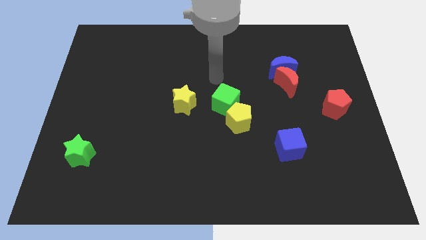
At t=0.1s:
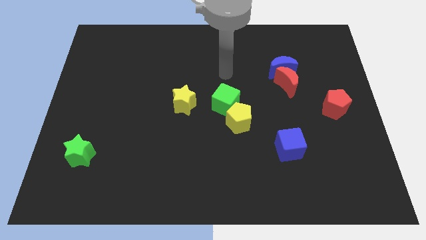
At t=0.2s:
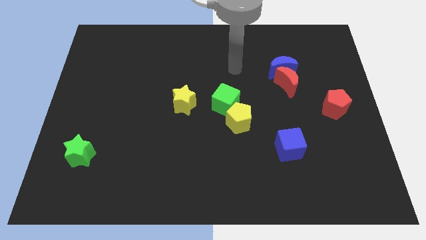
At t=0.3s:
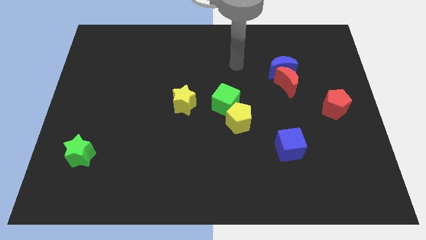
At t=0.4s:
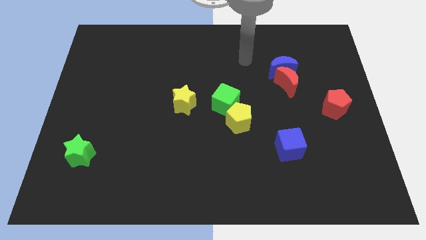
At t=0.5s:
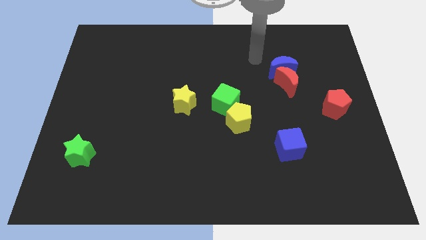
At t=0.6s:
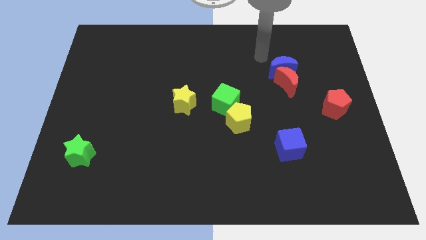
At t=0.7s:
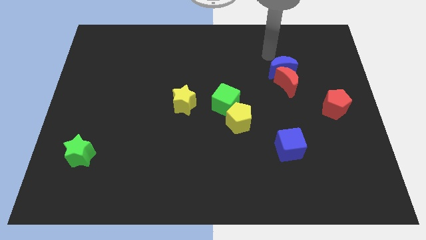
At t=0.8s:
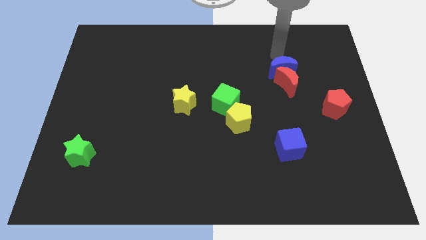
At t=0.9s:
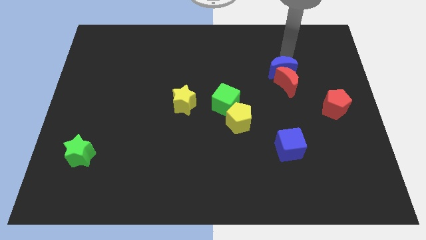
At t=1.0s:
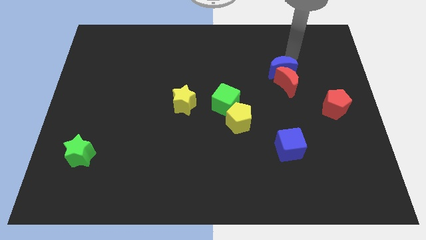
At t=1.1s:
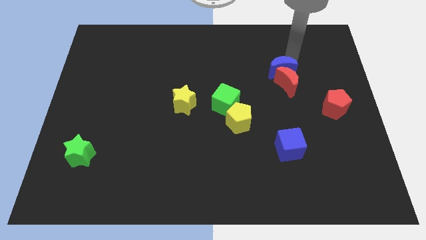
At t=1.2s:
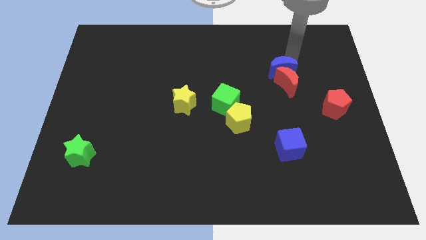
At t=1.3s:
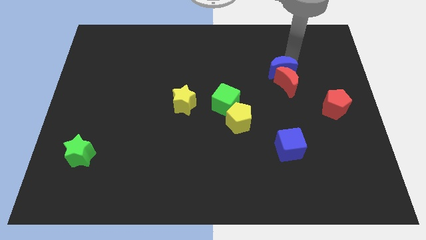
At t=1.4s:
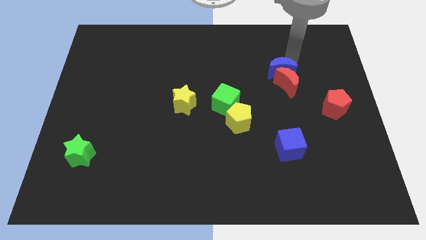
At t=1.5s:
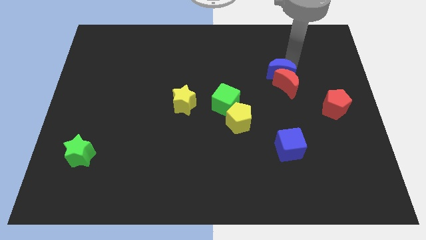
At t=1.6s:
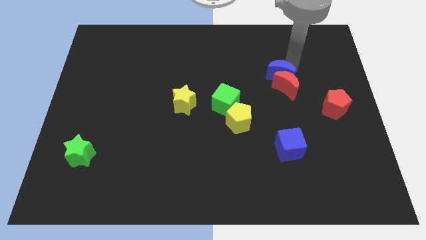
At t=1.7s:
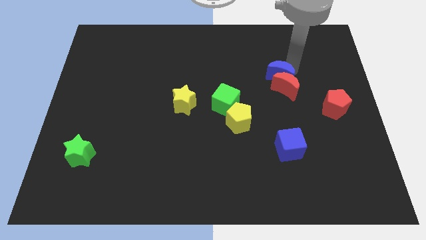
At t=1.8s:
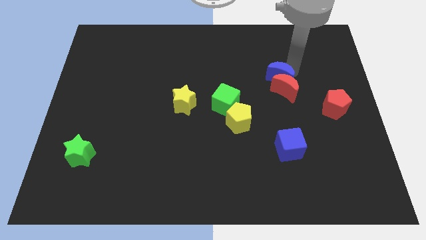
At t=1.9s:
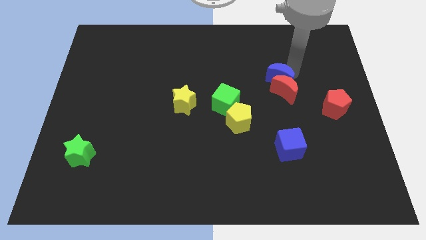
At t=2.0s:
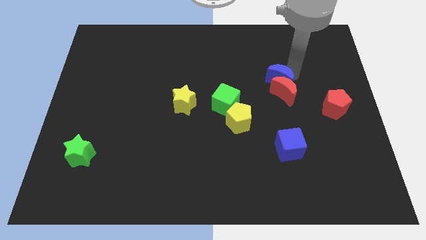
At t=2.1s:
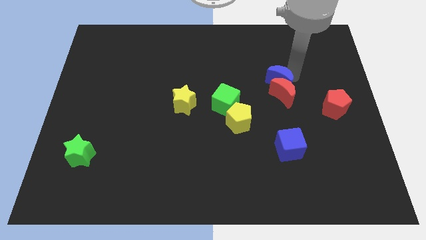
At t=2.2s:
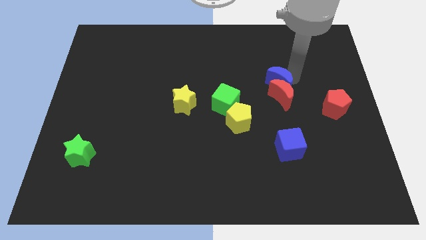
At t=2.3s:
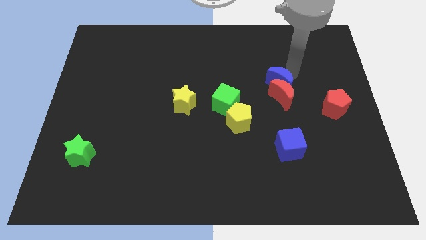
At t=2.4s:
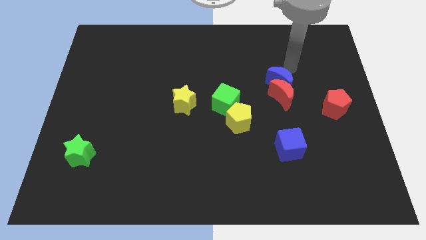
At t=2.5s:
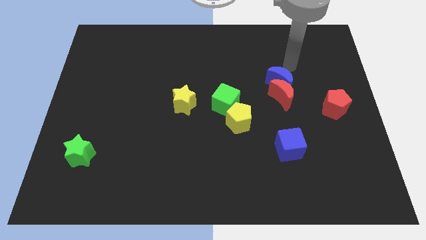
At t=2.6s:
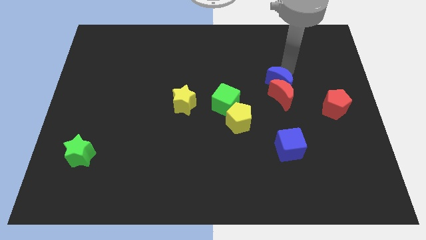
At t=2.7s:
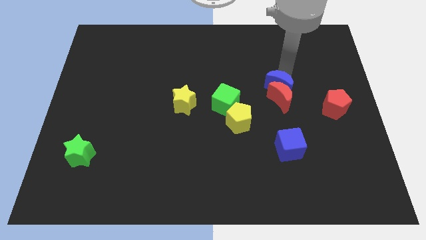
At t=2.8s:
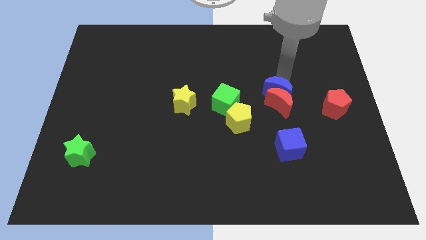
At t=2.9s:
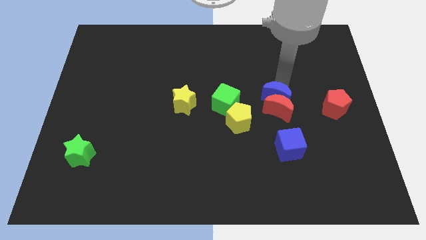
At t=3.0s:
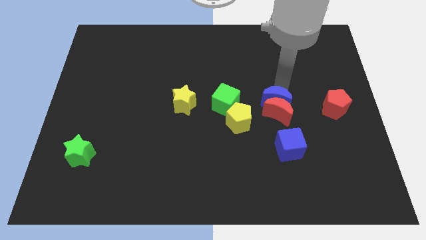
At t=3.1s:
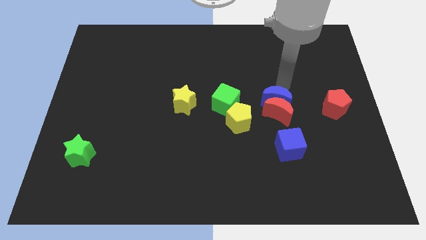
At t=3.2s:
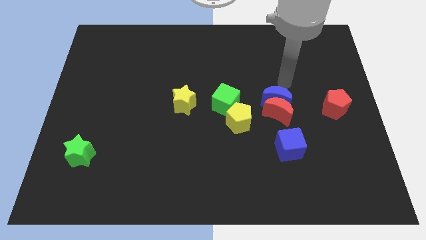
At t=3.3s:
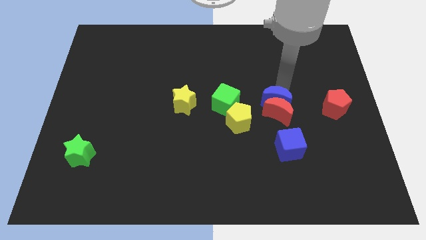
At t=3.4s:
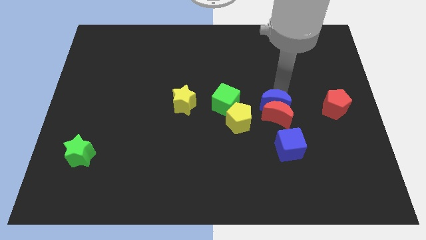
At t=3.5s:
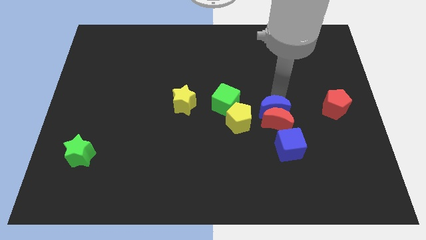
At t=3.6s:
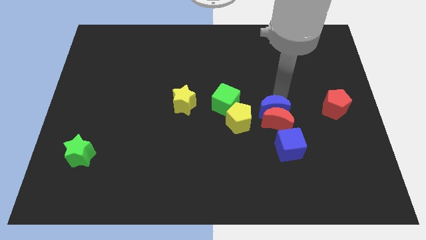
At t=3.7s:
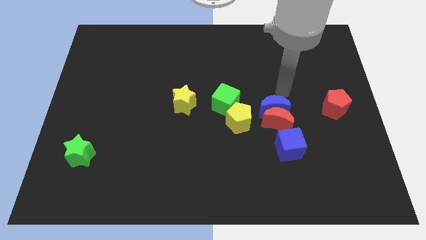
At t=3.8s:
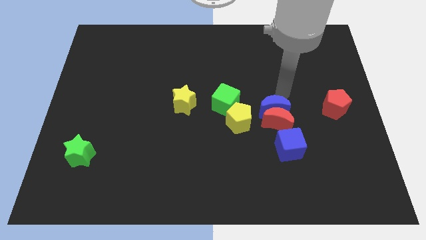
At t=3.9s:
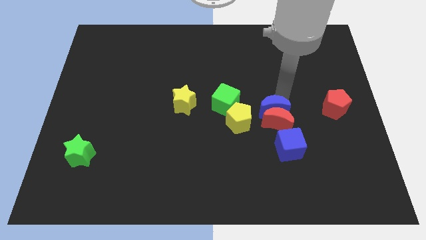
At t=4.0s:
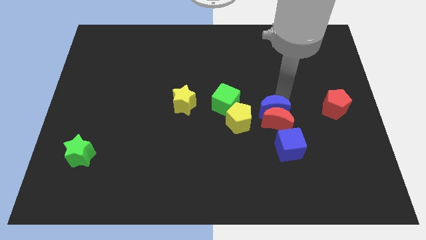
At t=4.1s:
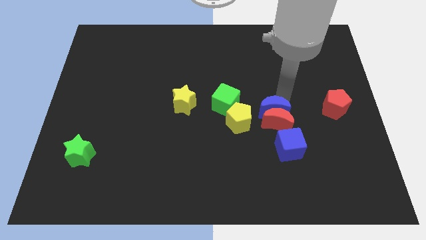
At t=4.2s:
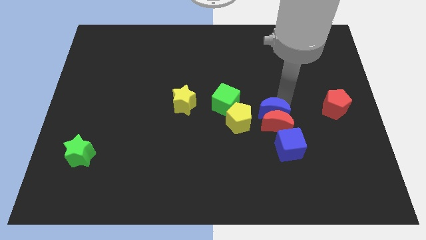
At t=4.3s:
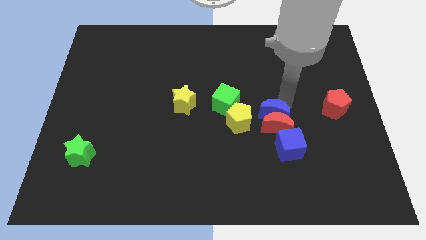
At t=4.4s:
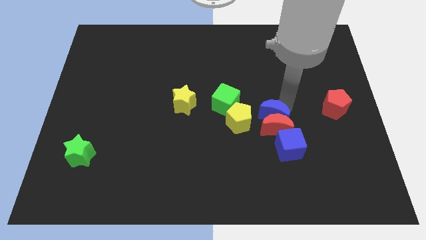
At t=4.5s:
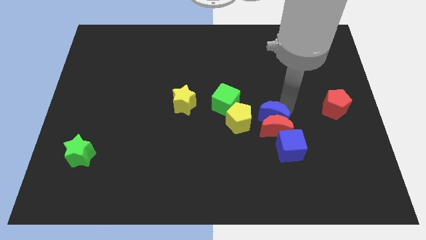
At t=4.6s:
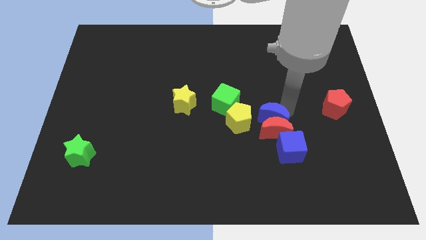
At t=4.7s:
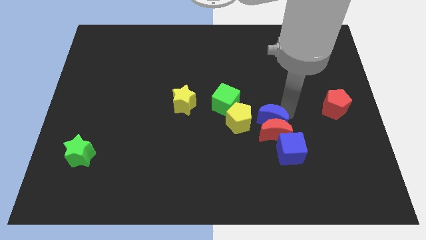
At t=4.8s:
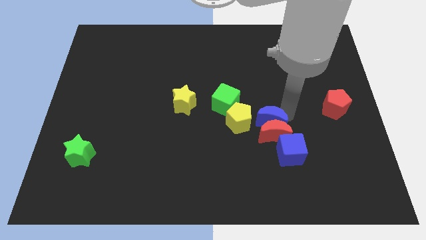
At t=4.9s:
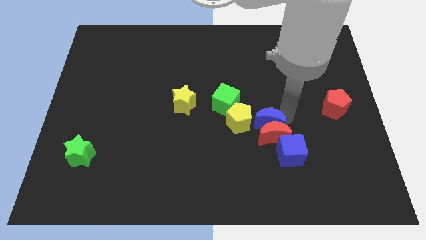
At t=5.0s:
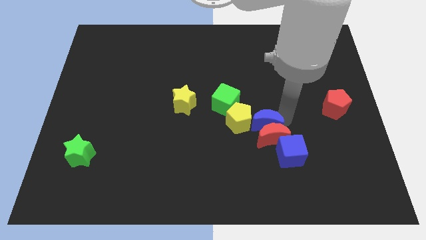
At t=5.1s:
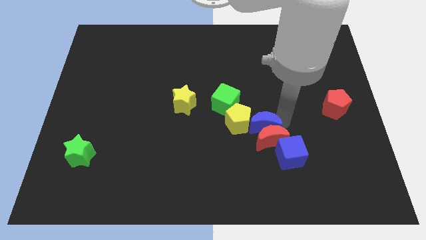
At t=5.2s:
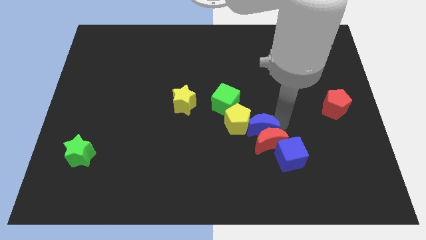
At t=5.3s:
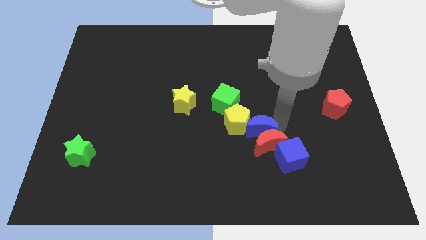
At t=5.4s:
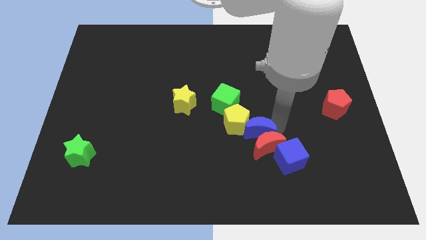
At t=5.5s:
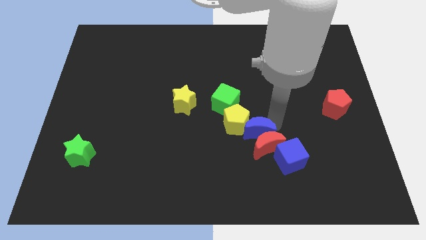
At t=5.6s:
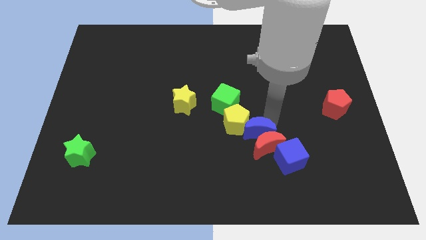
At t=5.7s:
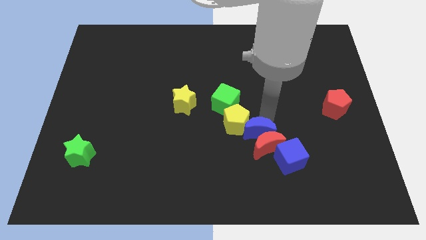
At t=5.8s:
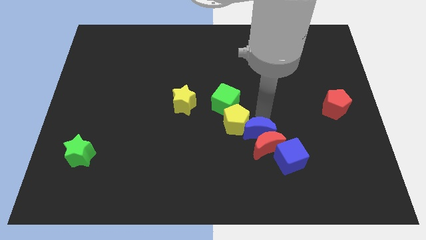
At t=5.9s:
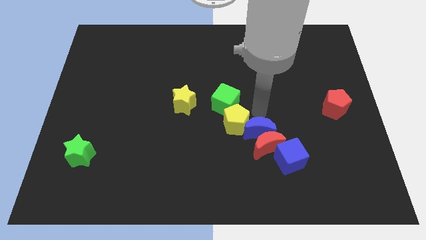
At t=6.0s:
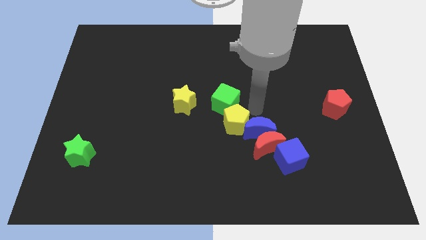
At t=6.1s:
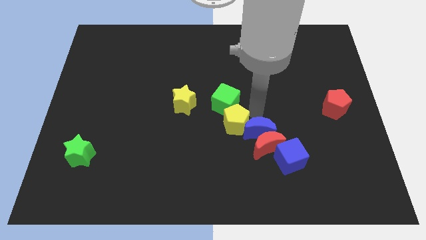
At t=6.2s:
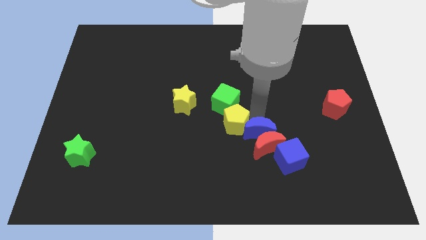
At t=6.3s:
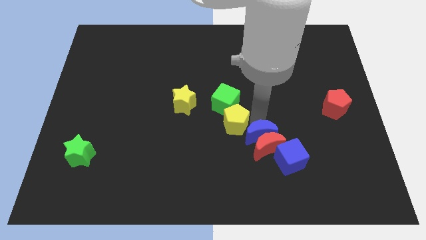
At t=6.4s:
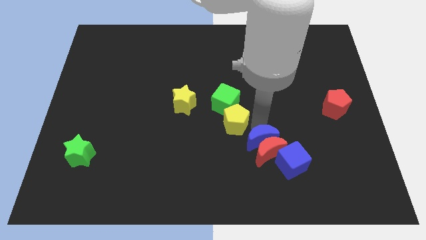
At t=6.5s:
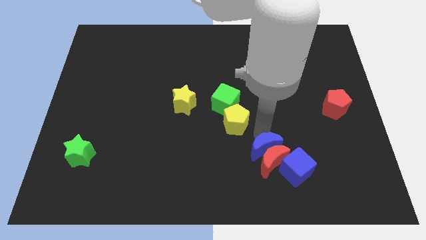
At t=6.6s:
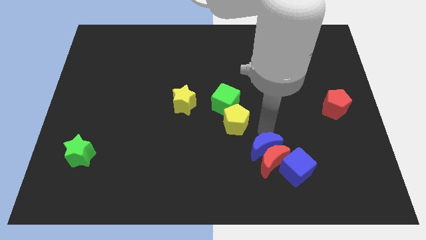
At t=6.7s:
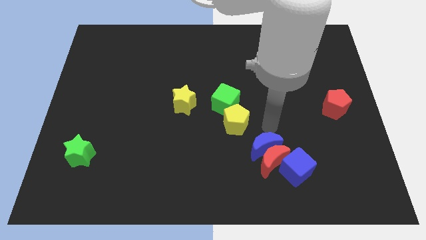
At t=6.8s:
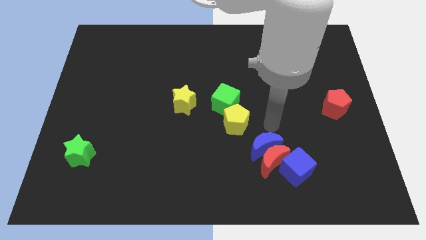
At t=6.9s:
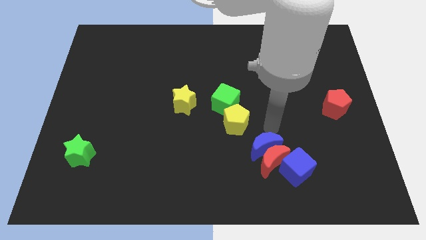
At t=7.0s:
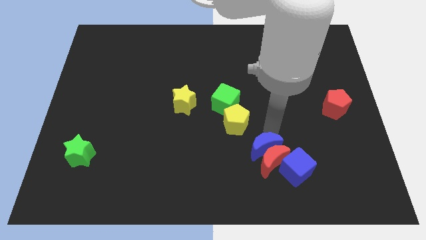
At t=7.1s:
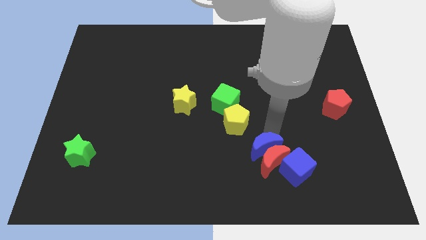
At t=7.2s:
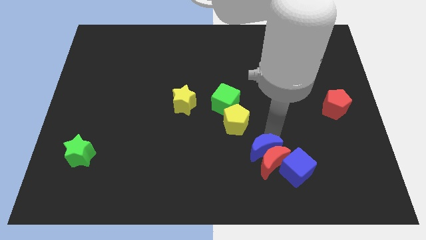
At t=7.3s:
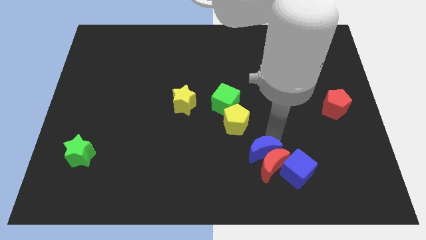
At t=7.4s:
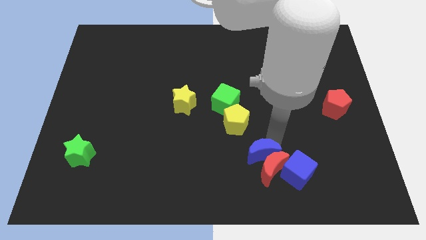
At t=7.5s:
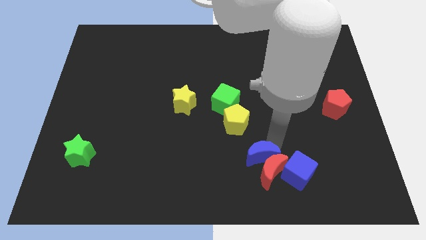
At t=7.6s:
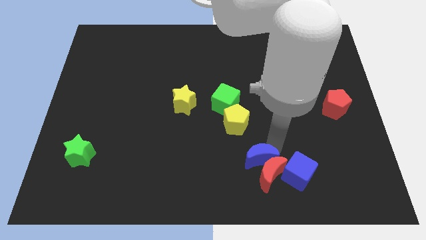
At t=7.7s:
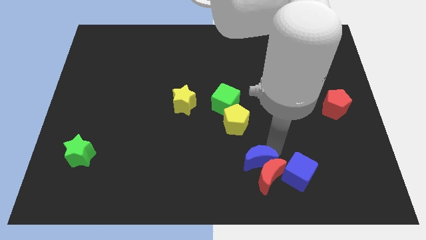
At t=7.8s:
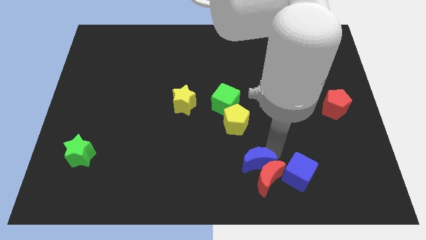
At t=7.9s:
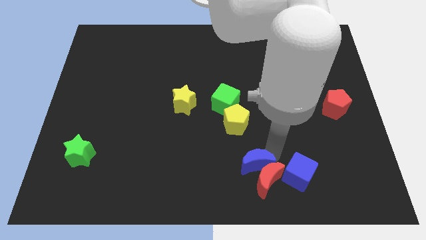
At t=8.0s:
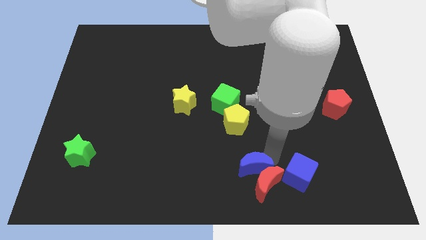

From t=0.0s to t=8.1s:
move the blue moon to the bottom side

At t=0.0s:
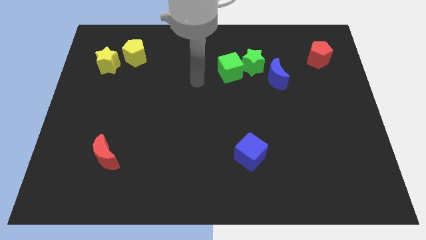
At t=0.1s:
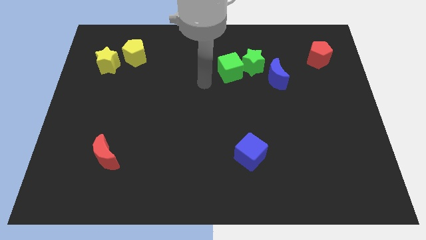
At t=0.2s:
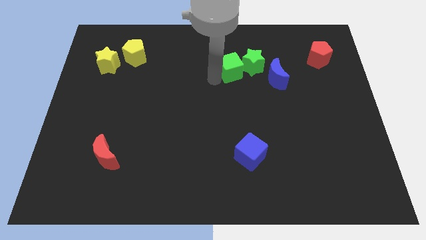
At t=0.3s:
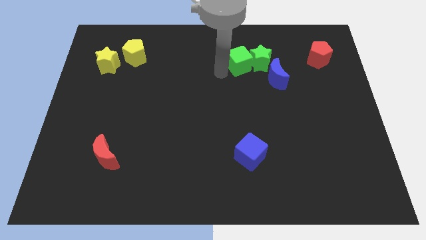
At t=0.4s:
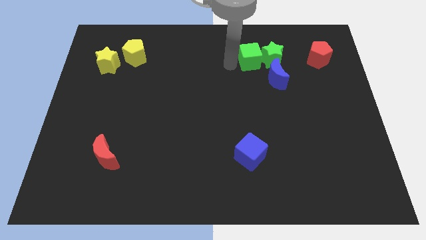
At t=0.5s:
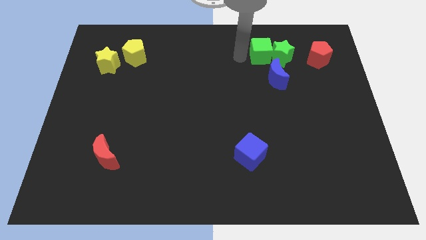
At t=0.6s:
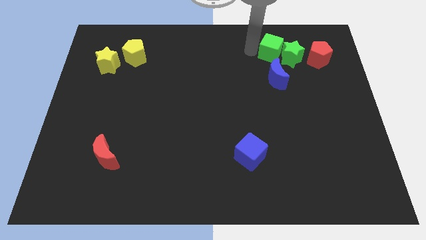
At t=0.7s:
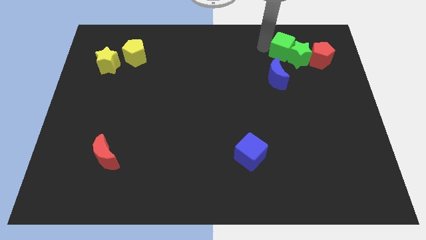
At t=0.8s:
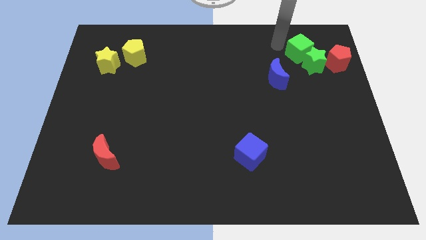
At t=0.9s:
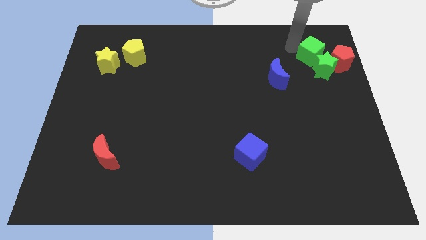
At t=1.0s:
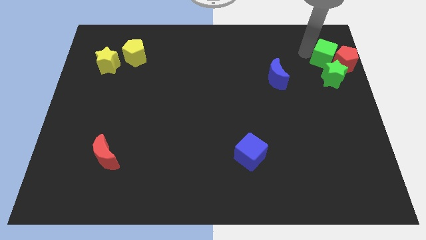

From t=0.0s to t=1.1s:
move the green star to the right side of the board
